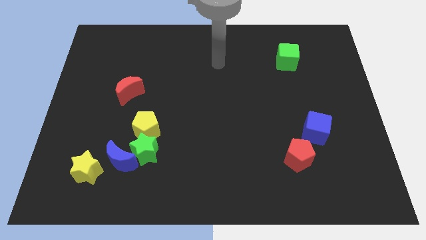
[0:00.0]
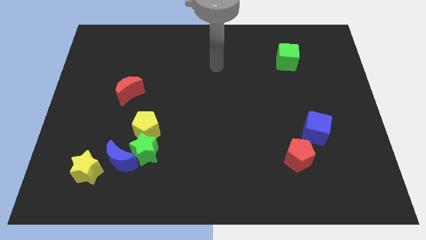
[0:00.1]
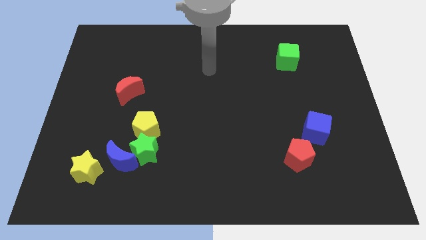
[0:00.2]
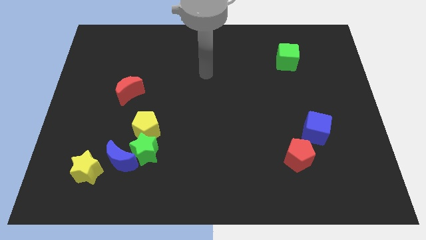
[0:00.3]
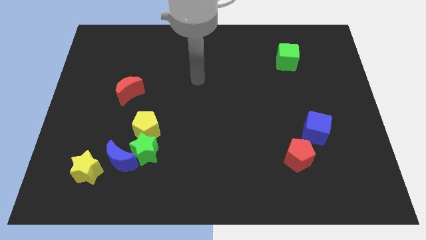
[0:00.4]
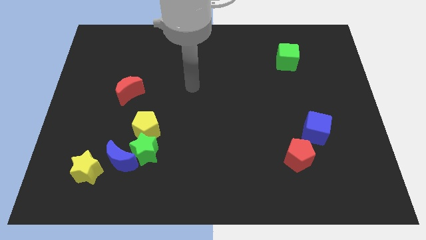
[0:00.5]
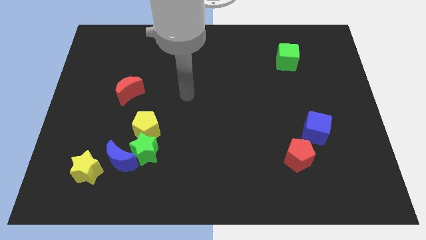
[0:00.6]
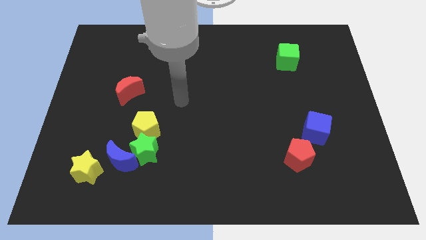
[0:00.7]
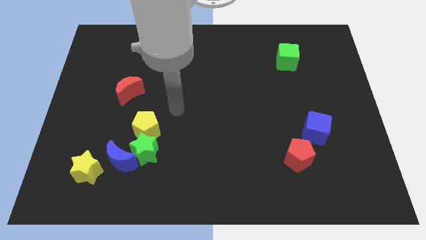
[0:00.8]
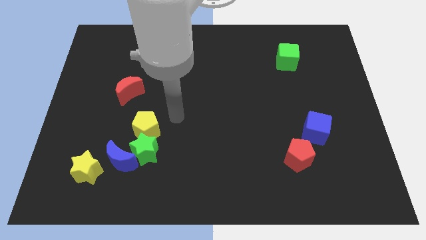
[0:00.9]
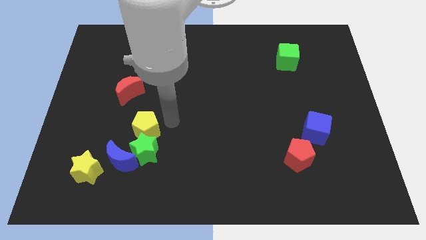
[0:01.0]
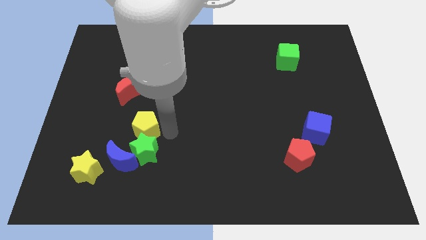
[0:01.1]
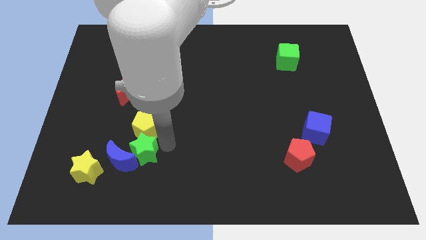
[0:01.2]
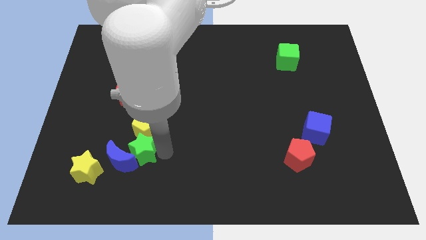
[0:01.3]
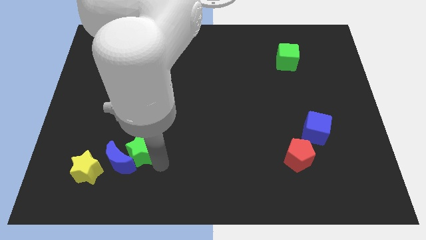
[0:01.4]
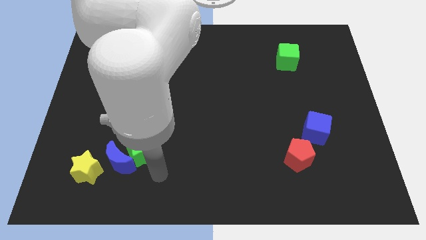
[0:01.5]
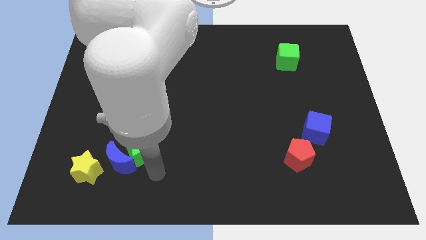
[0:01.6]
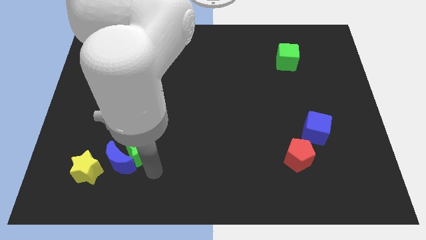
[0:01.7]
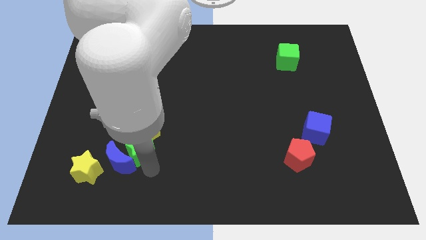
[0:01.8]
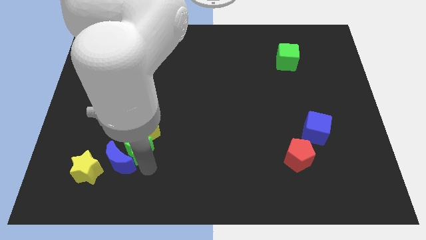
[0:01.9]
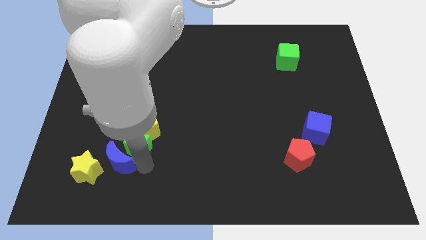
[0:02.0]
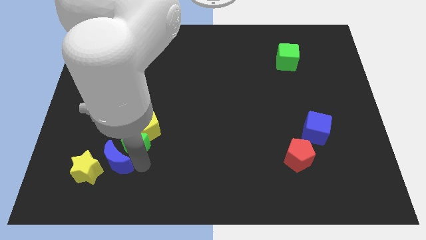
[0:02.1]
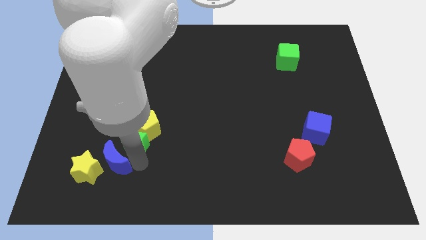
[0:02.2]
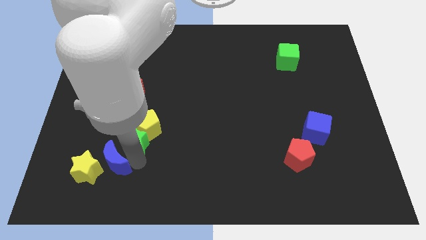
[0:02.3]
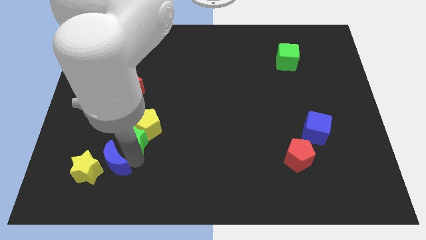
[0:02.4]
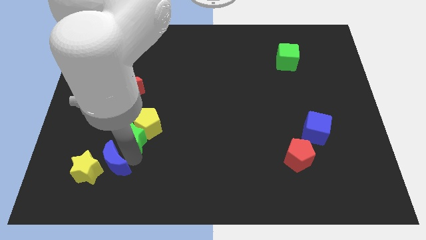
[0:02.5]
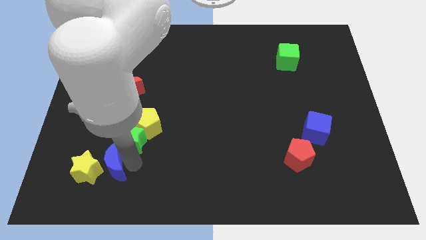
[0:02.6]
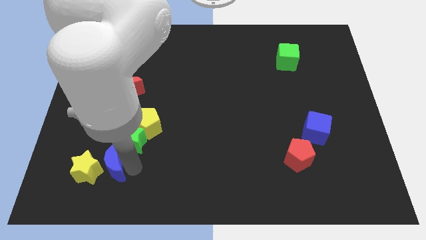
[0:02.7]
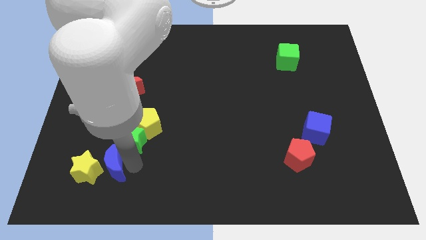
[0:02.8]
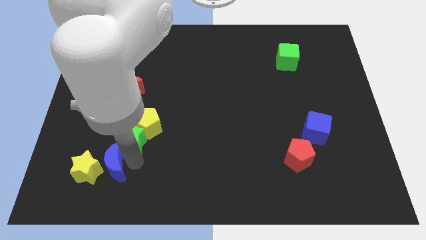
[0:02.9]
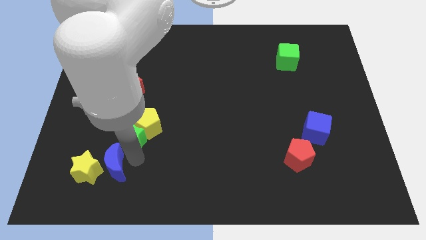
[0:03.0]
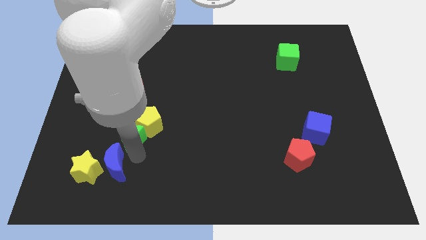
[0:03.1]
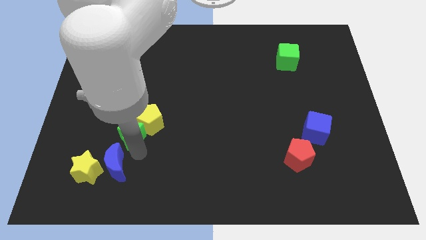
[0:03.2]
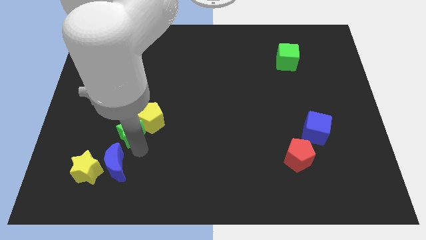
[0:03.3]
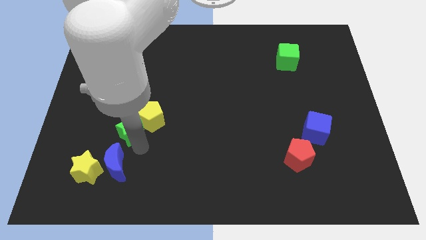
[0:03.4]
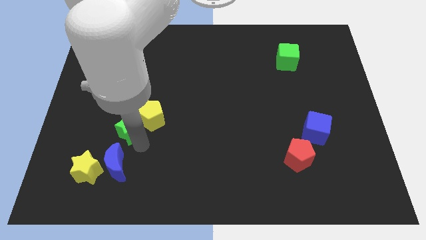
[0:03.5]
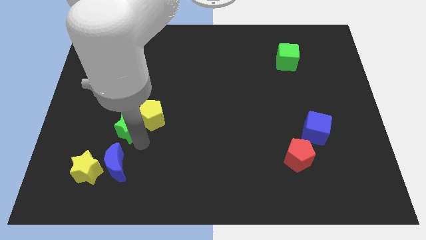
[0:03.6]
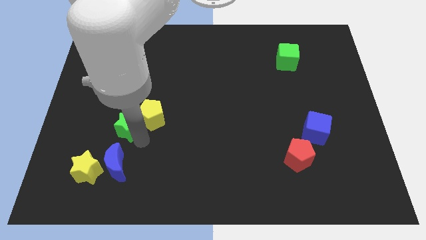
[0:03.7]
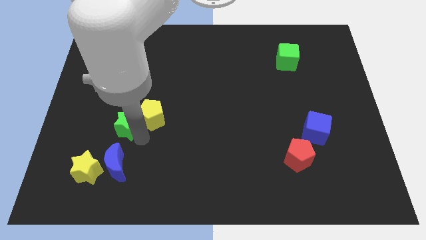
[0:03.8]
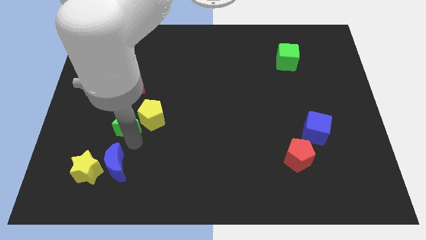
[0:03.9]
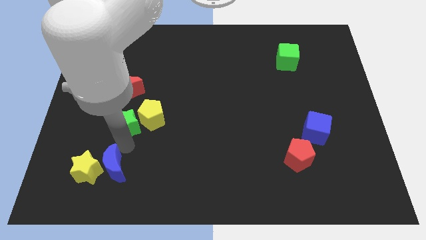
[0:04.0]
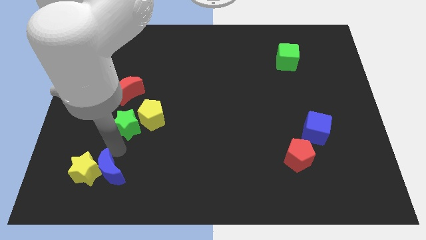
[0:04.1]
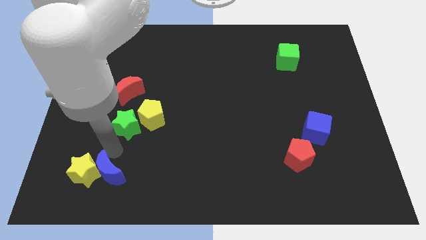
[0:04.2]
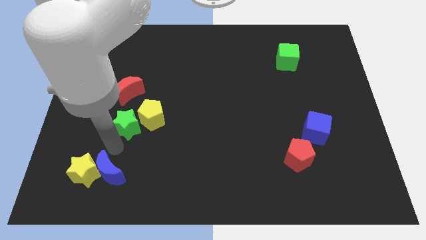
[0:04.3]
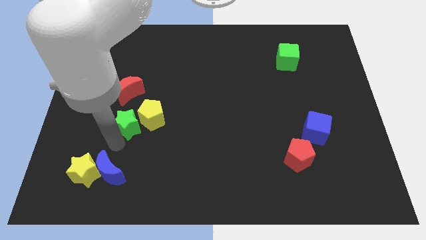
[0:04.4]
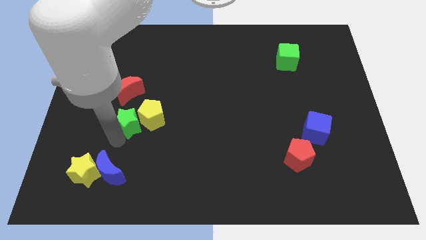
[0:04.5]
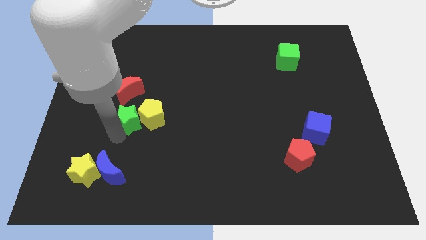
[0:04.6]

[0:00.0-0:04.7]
move the green star upwards a little

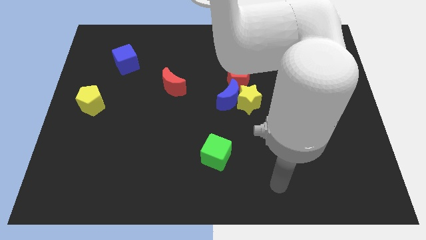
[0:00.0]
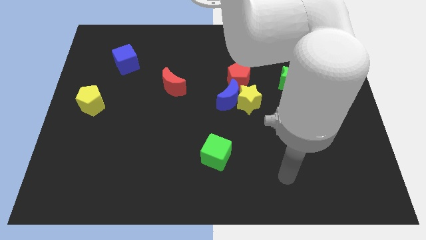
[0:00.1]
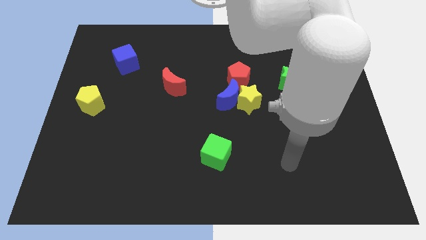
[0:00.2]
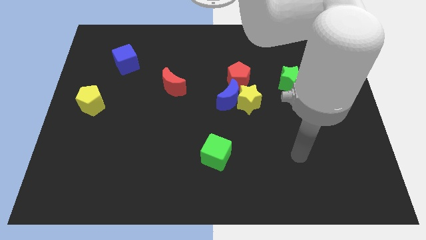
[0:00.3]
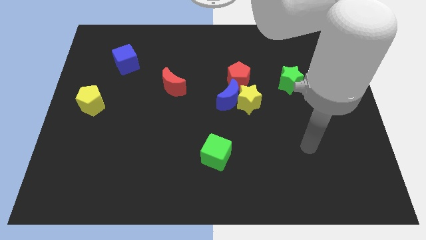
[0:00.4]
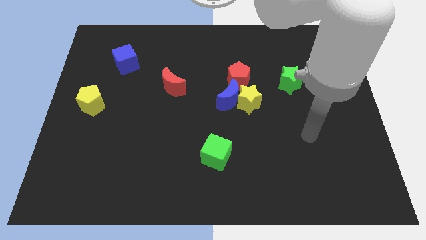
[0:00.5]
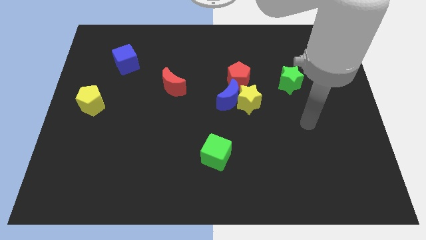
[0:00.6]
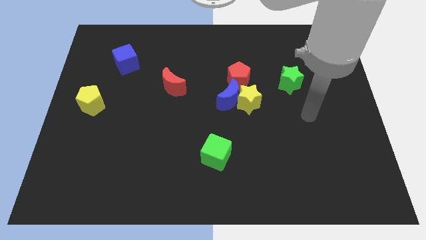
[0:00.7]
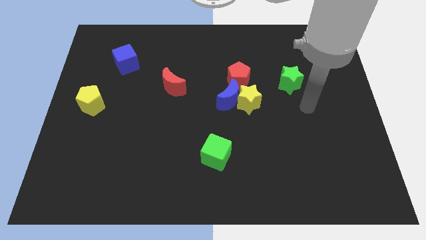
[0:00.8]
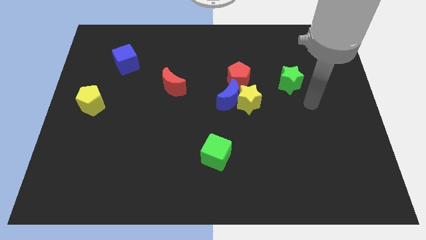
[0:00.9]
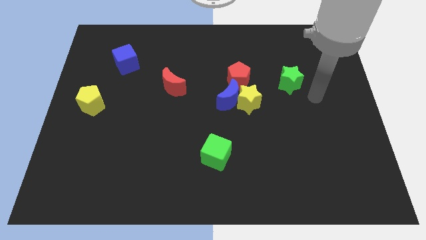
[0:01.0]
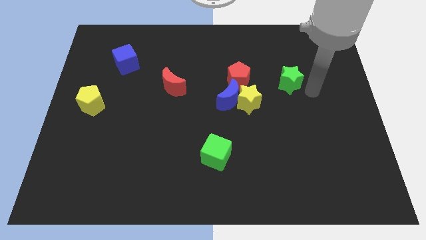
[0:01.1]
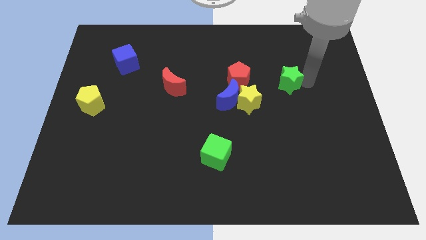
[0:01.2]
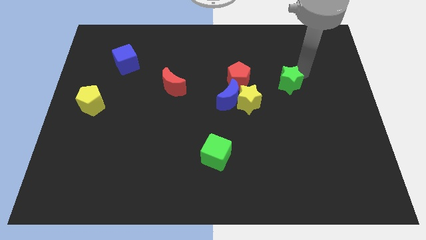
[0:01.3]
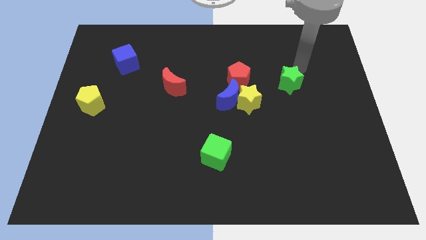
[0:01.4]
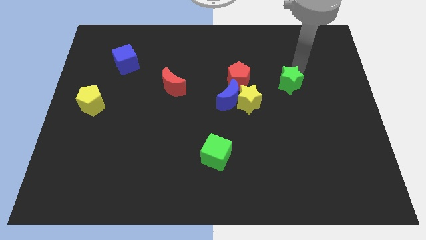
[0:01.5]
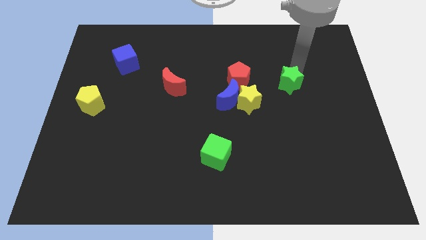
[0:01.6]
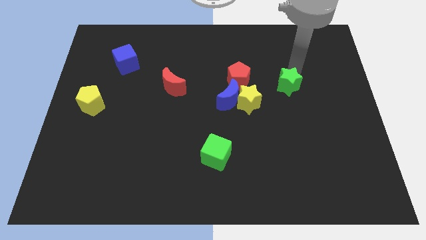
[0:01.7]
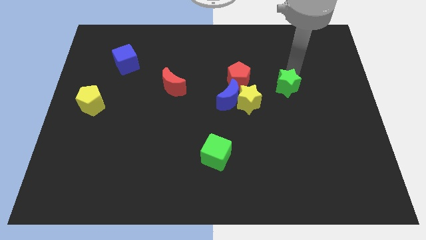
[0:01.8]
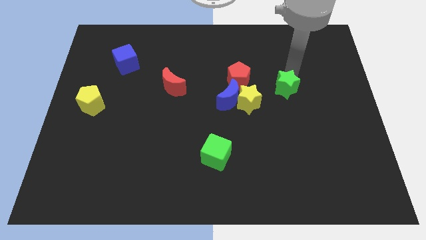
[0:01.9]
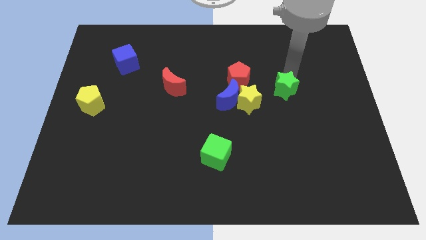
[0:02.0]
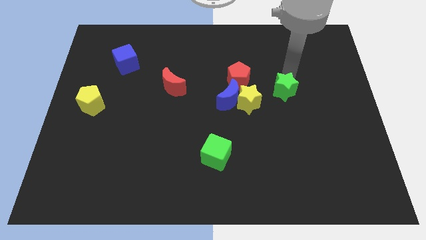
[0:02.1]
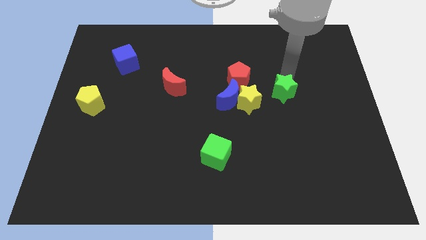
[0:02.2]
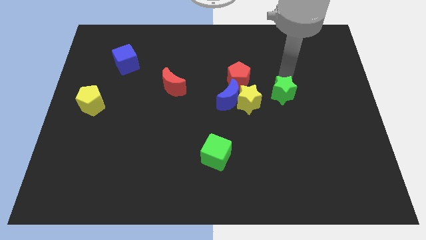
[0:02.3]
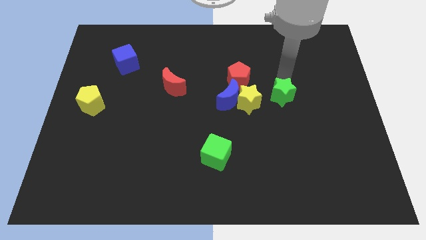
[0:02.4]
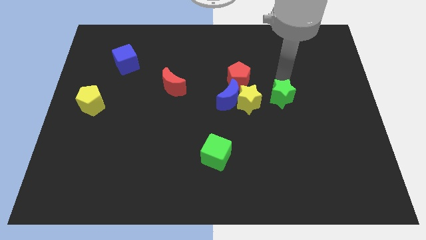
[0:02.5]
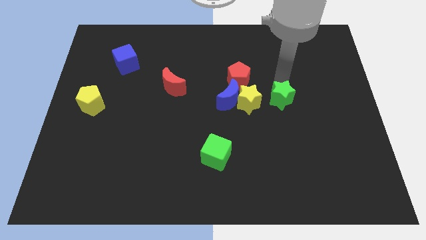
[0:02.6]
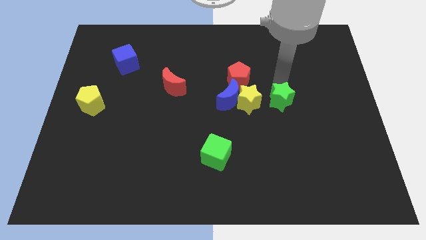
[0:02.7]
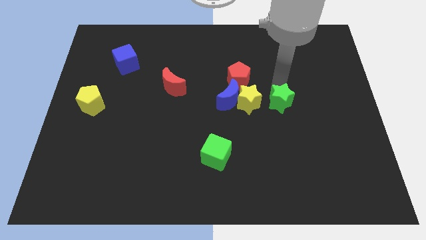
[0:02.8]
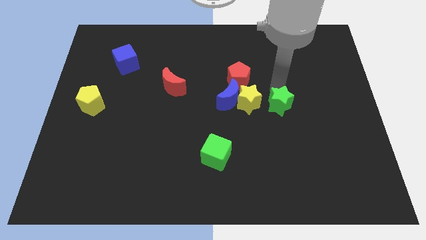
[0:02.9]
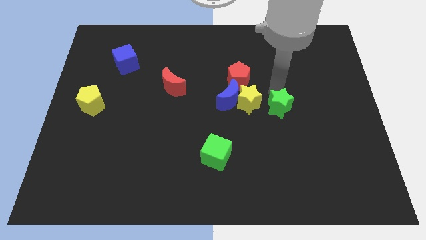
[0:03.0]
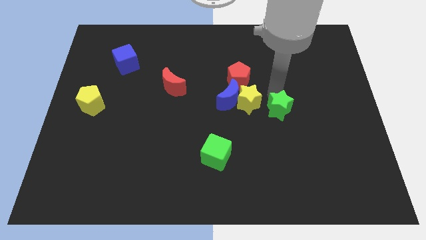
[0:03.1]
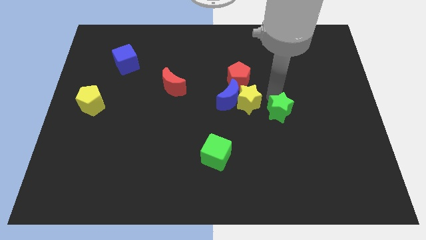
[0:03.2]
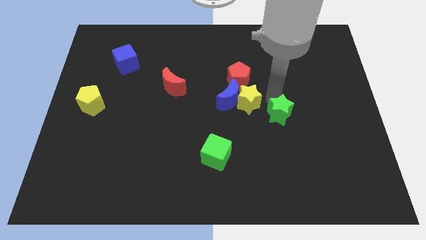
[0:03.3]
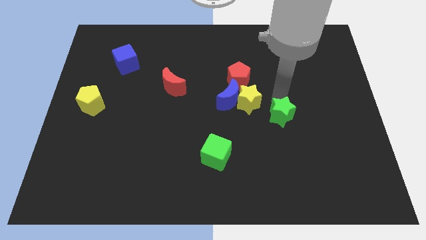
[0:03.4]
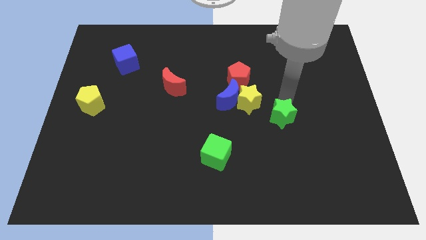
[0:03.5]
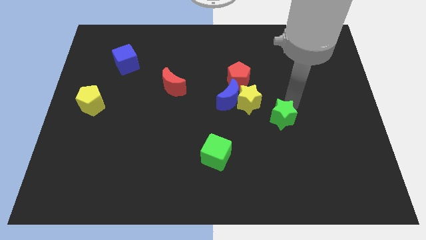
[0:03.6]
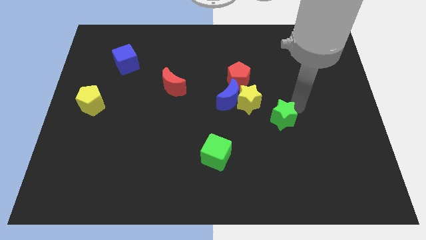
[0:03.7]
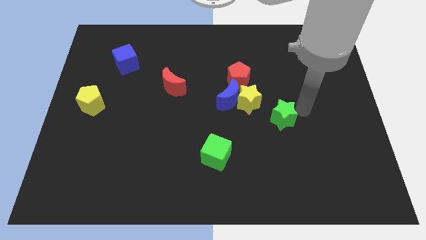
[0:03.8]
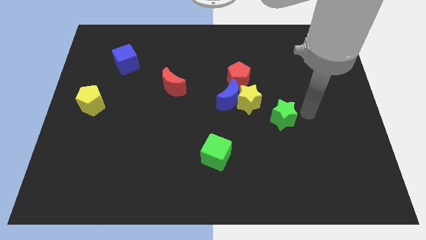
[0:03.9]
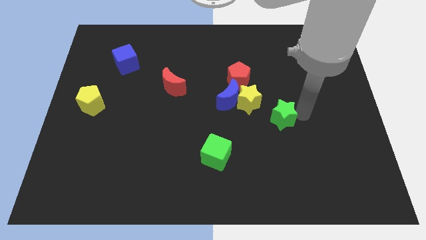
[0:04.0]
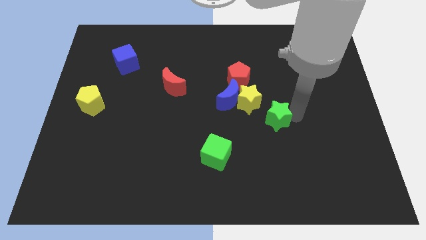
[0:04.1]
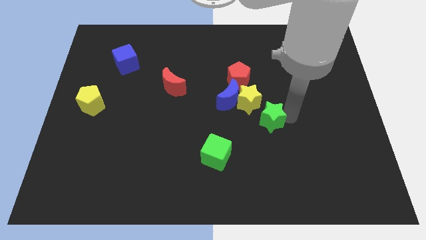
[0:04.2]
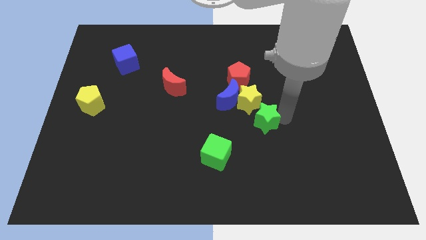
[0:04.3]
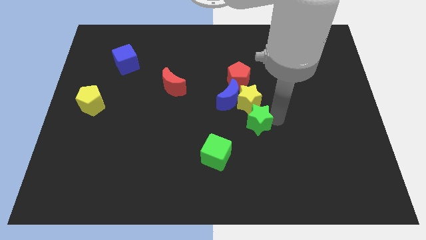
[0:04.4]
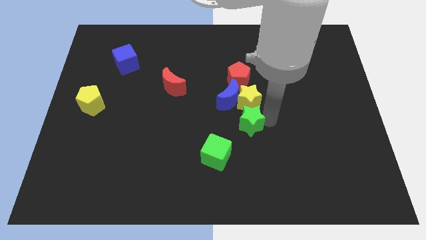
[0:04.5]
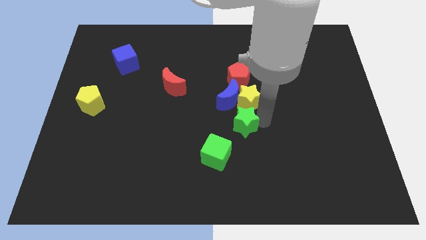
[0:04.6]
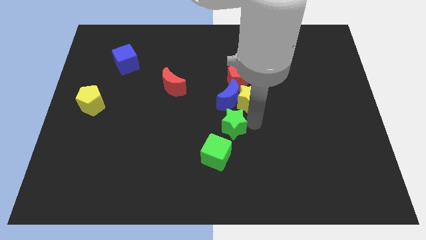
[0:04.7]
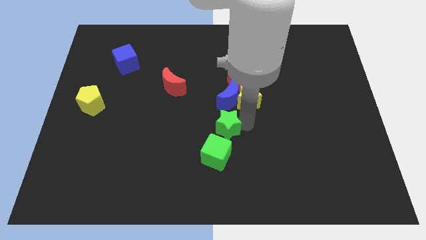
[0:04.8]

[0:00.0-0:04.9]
move the green star down and left
